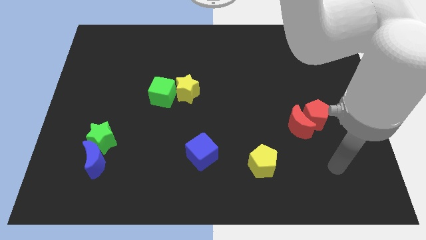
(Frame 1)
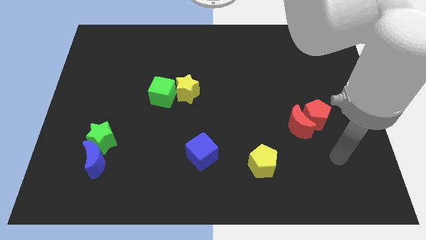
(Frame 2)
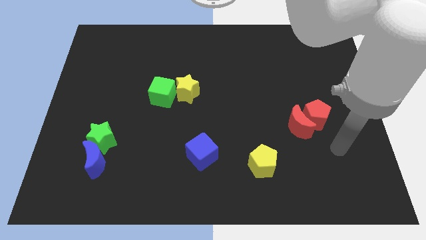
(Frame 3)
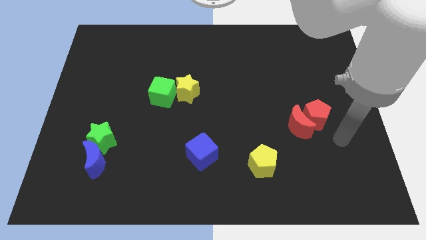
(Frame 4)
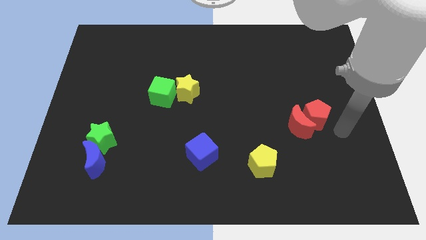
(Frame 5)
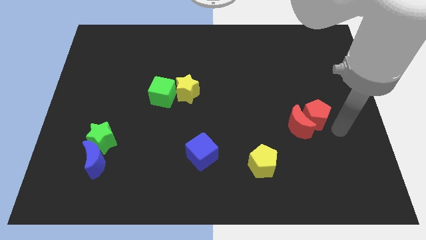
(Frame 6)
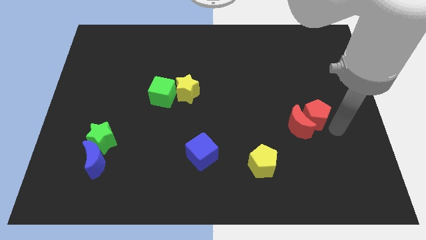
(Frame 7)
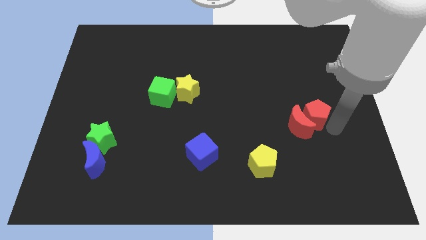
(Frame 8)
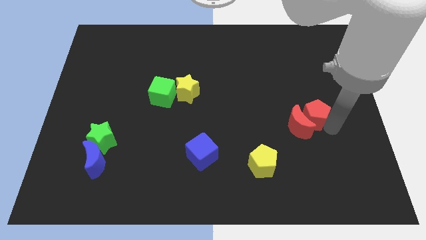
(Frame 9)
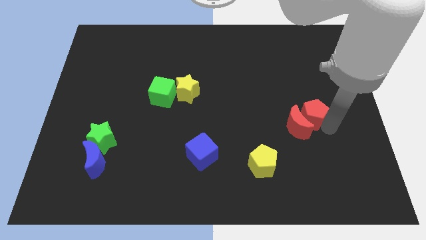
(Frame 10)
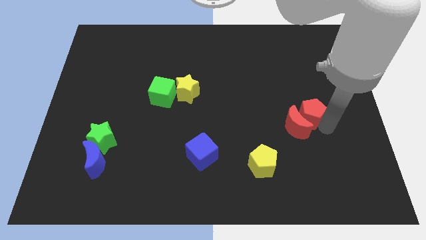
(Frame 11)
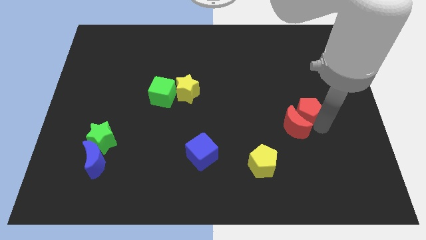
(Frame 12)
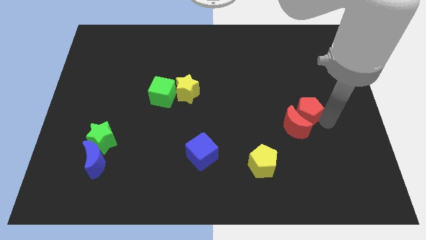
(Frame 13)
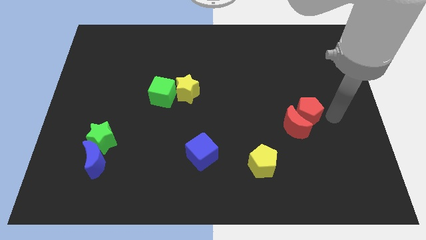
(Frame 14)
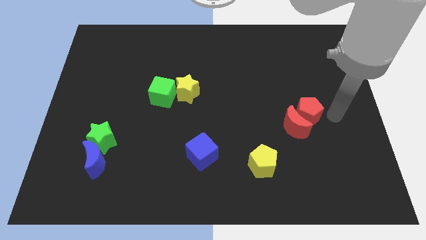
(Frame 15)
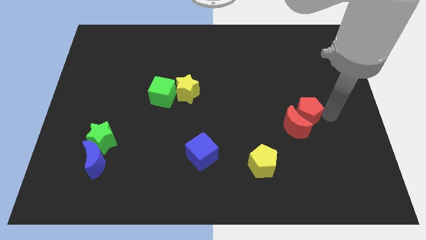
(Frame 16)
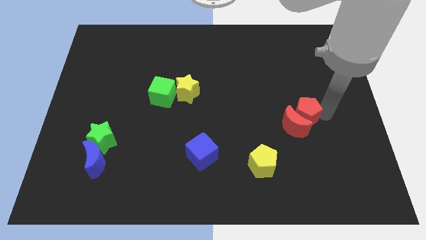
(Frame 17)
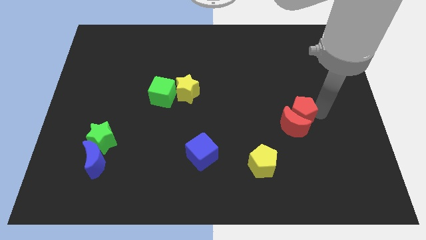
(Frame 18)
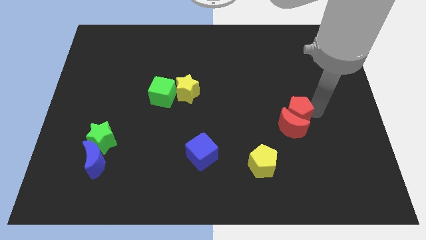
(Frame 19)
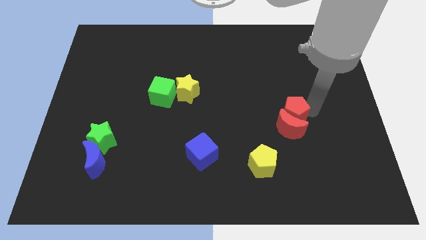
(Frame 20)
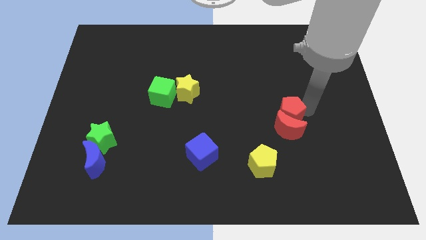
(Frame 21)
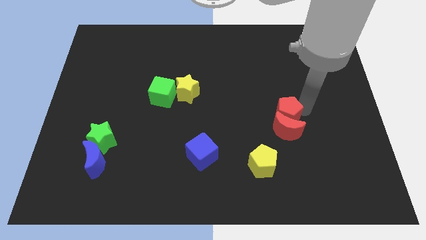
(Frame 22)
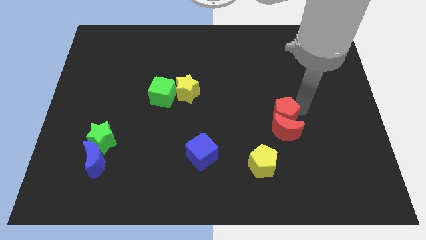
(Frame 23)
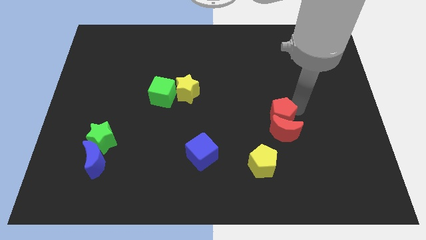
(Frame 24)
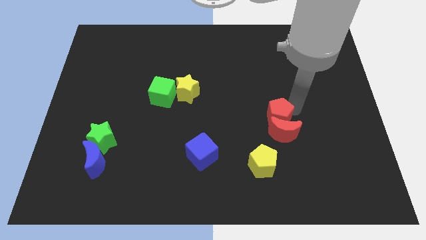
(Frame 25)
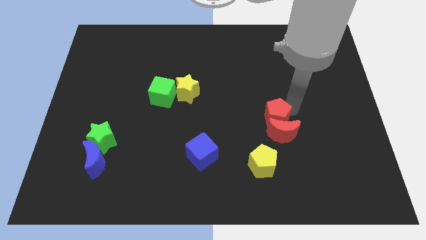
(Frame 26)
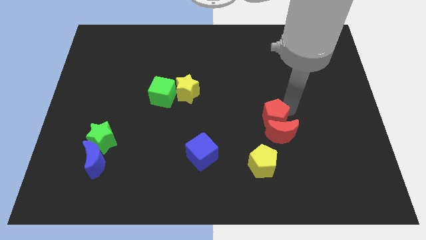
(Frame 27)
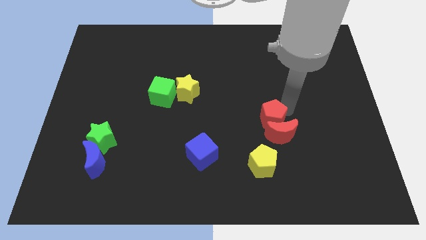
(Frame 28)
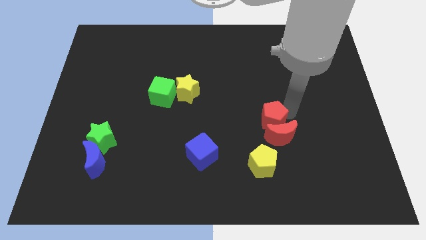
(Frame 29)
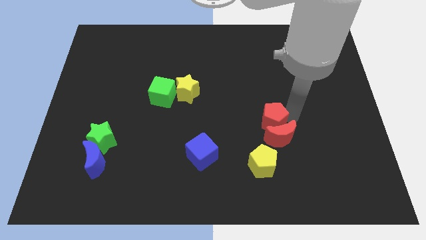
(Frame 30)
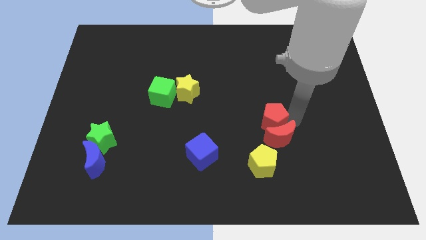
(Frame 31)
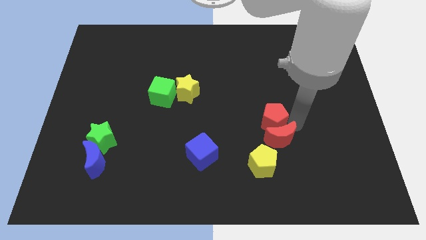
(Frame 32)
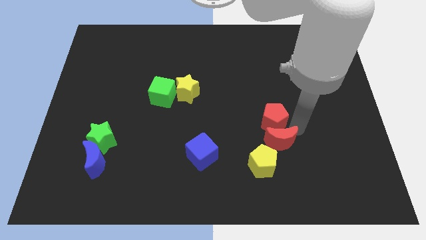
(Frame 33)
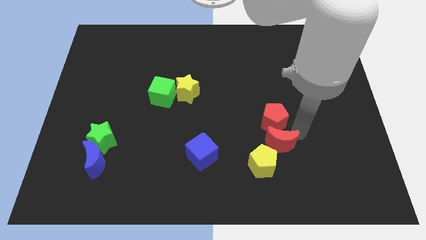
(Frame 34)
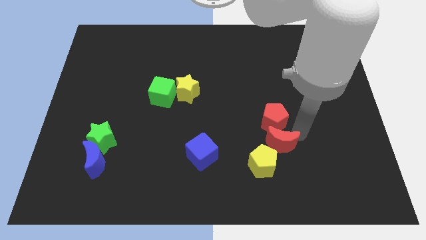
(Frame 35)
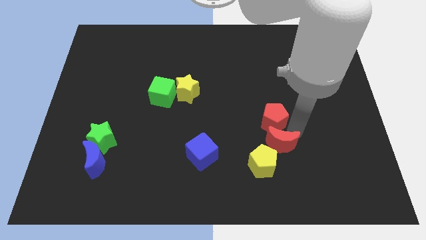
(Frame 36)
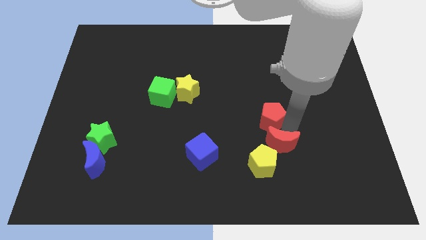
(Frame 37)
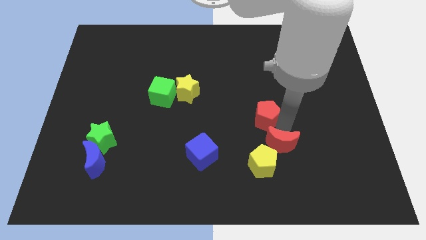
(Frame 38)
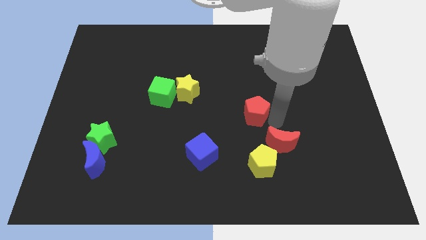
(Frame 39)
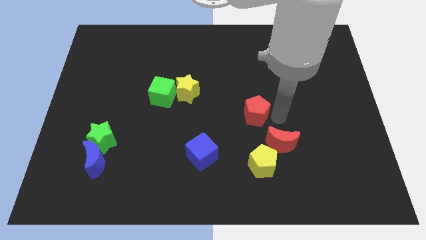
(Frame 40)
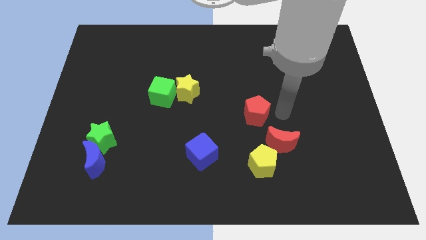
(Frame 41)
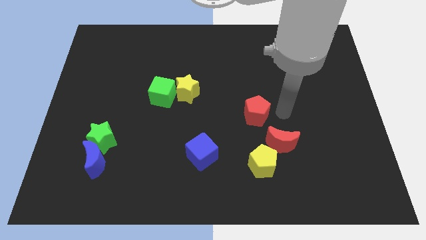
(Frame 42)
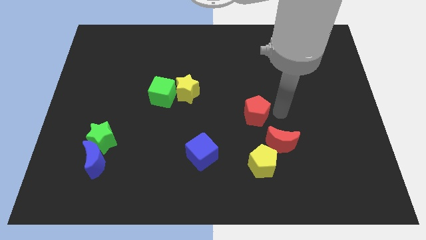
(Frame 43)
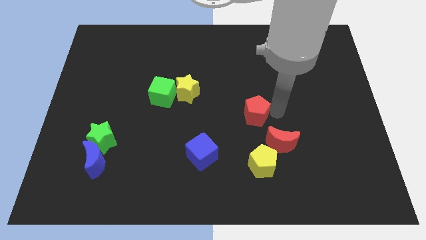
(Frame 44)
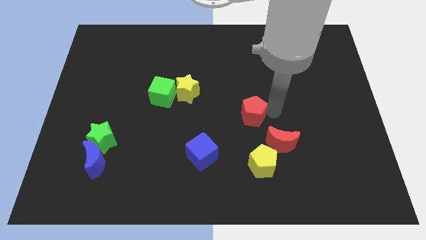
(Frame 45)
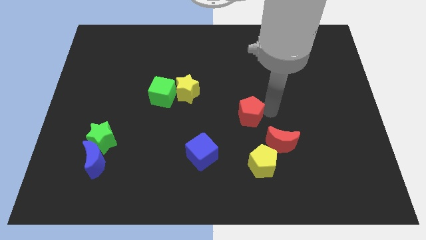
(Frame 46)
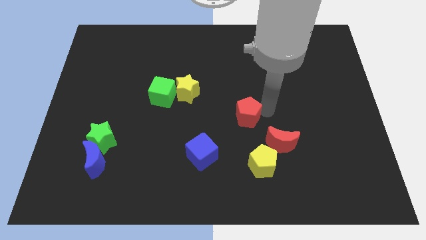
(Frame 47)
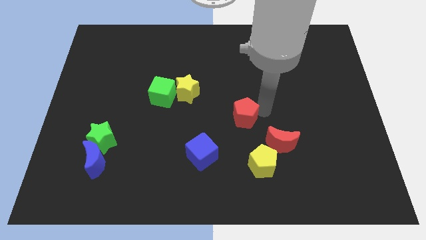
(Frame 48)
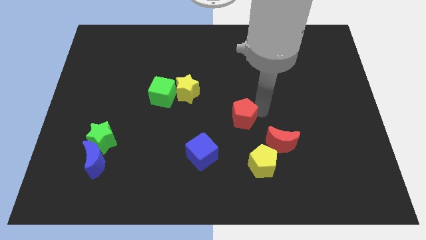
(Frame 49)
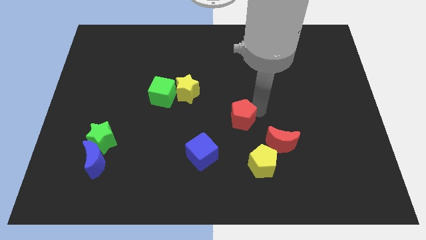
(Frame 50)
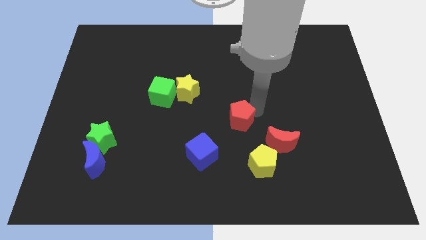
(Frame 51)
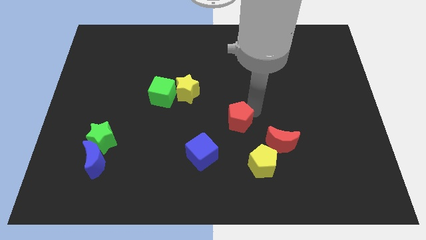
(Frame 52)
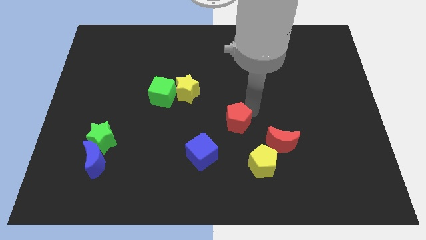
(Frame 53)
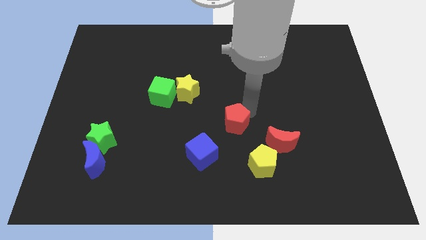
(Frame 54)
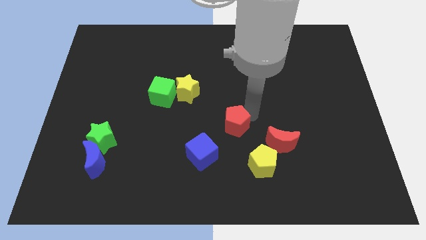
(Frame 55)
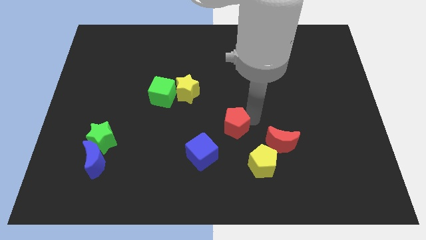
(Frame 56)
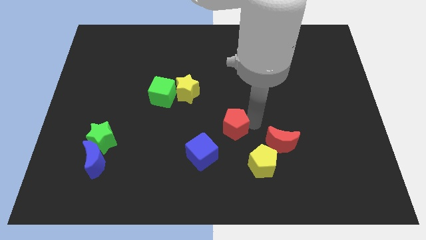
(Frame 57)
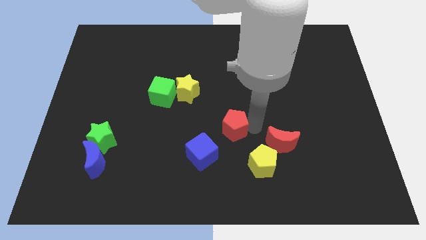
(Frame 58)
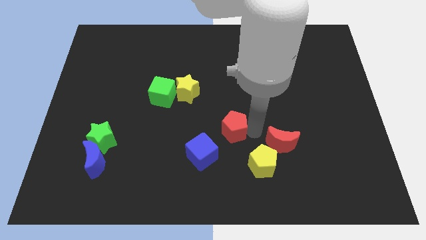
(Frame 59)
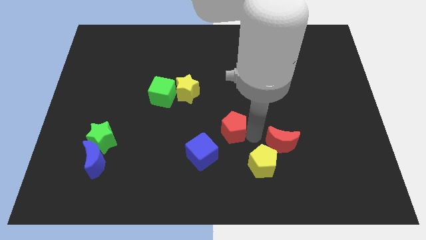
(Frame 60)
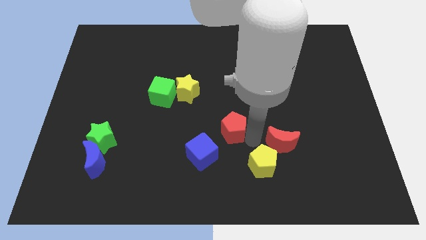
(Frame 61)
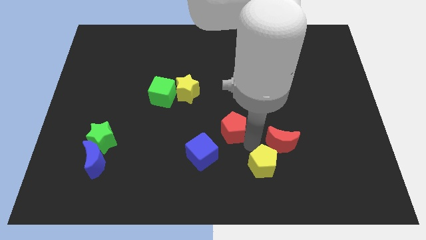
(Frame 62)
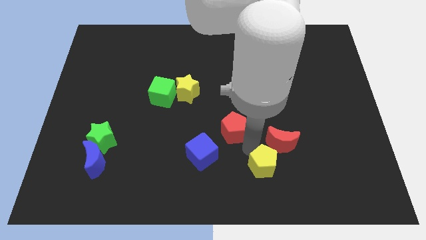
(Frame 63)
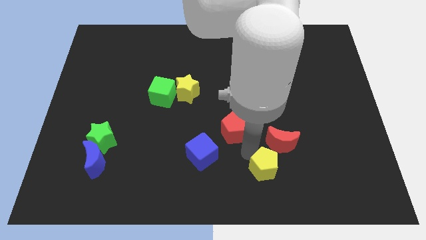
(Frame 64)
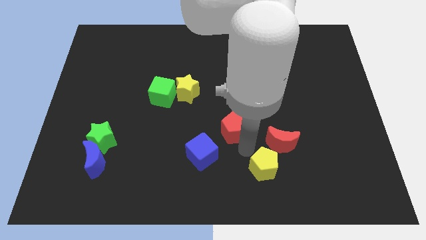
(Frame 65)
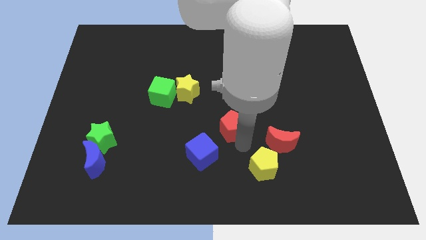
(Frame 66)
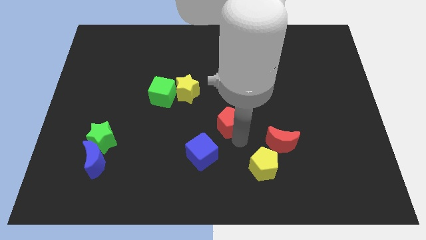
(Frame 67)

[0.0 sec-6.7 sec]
move the red pentagon left

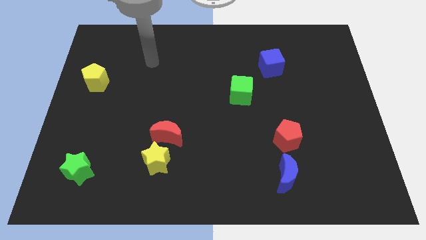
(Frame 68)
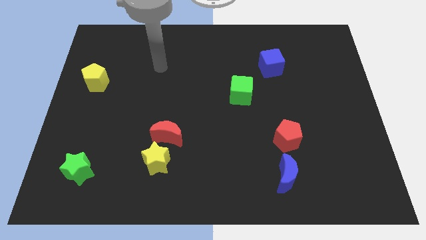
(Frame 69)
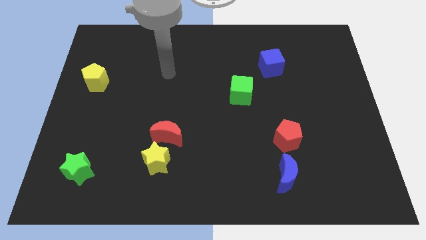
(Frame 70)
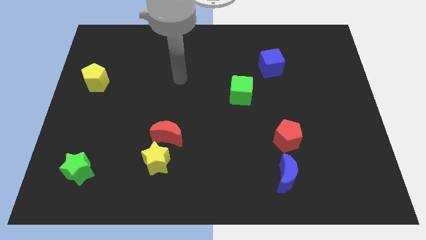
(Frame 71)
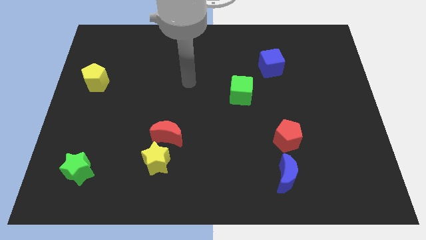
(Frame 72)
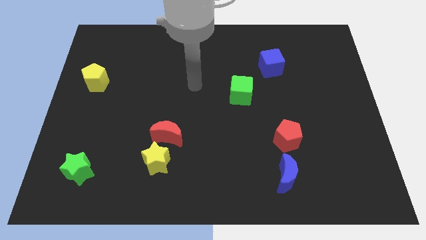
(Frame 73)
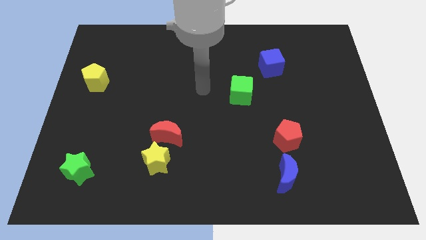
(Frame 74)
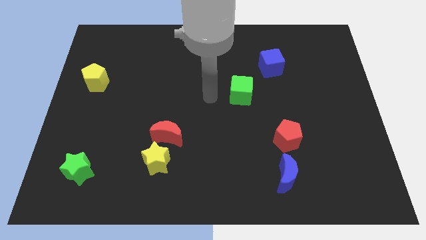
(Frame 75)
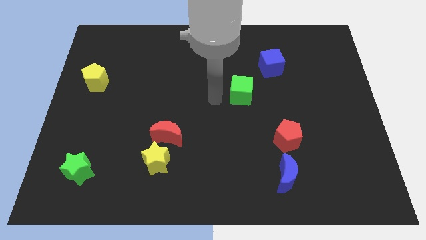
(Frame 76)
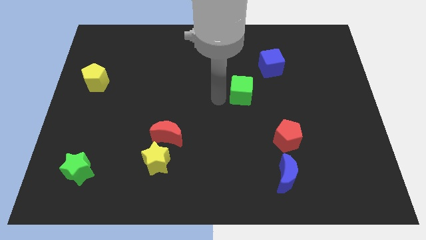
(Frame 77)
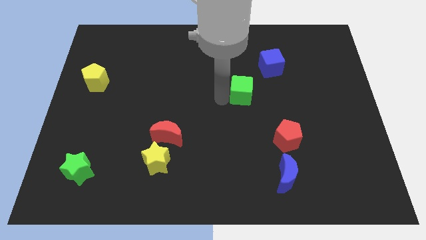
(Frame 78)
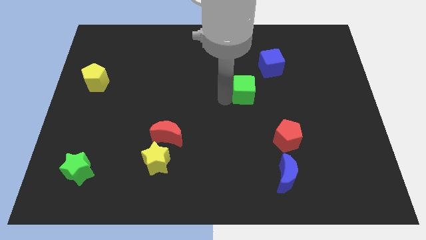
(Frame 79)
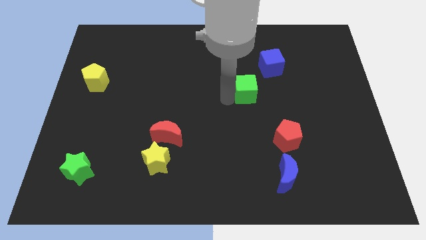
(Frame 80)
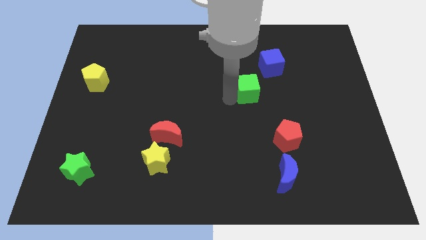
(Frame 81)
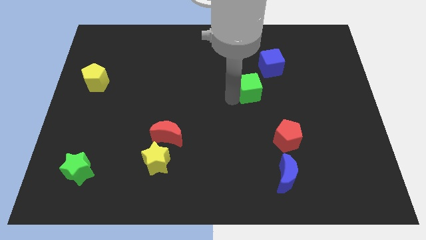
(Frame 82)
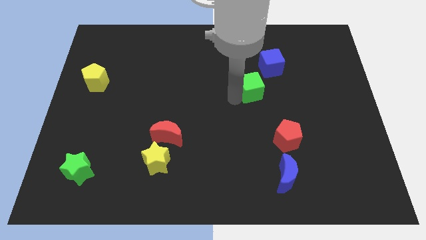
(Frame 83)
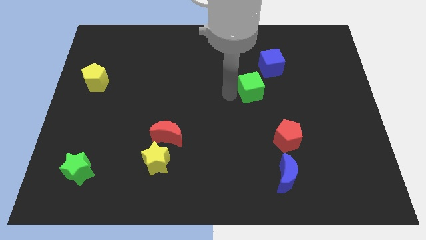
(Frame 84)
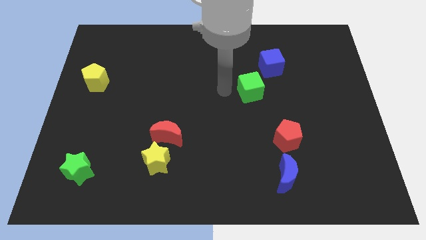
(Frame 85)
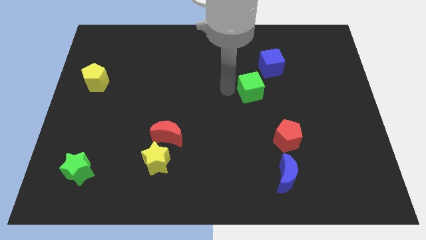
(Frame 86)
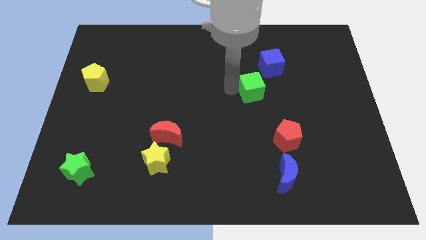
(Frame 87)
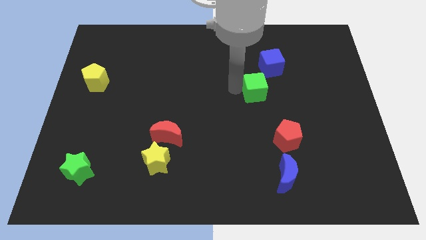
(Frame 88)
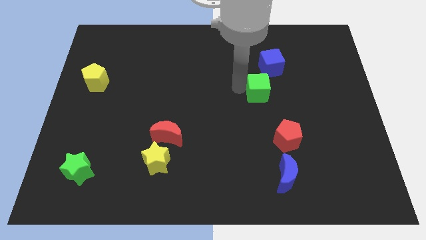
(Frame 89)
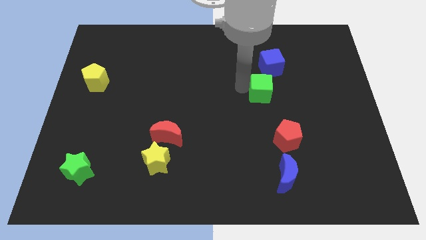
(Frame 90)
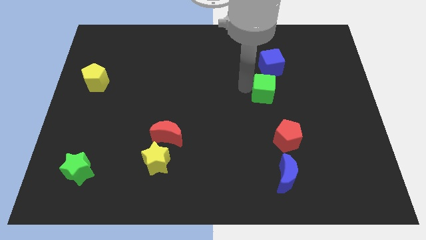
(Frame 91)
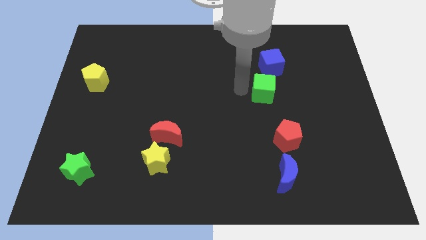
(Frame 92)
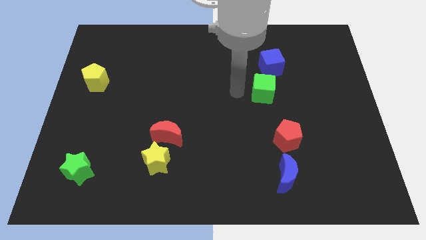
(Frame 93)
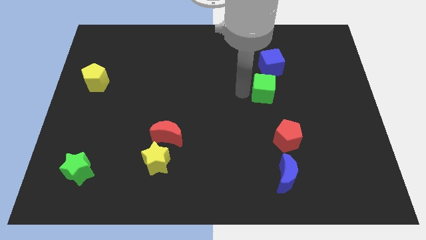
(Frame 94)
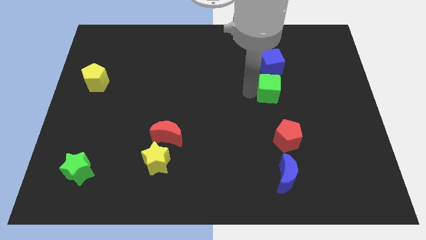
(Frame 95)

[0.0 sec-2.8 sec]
move the green cube to the right a bit
